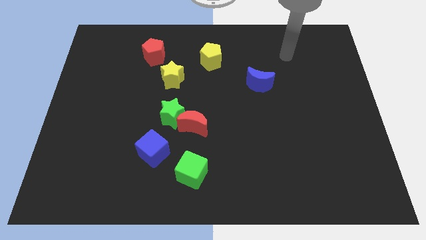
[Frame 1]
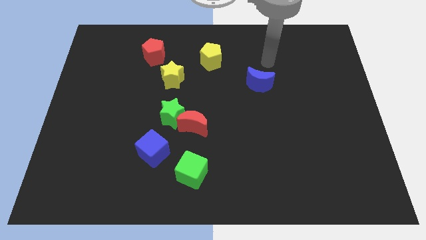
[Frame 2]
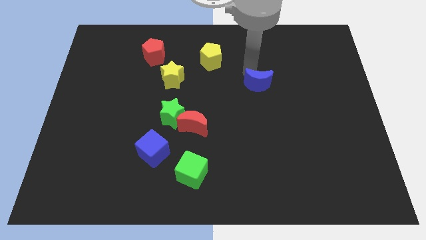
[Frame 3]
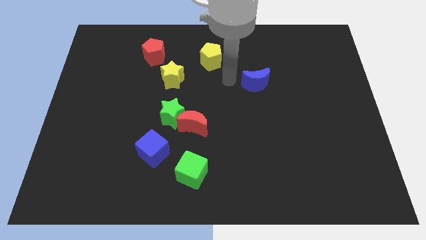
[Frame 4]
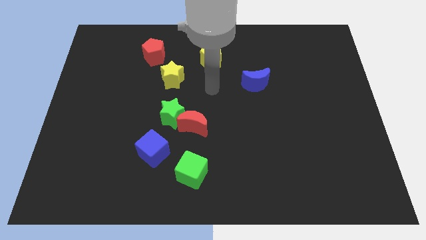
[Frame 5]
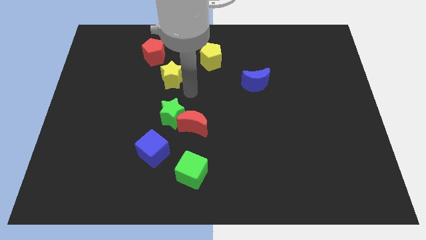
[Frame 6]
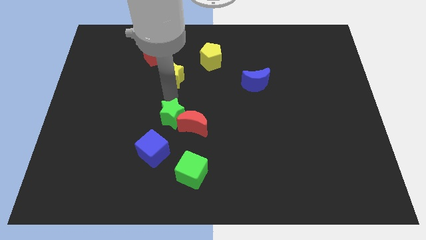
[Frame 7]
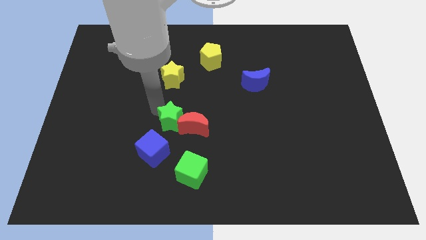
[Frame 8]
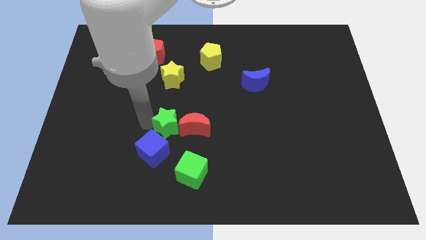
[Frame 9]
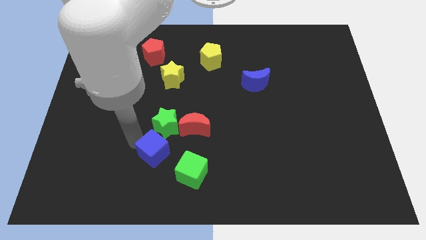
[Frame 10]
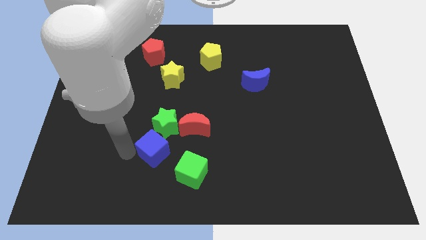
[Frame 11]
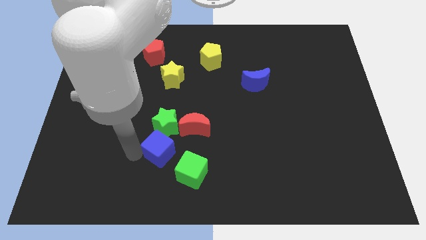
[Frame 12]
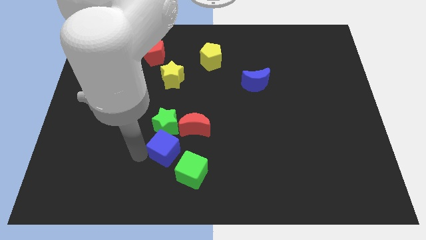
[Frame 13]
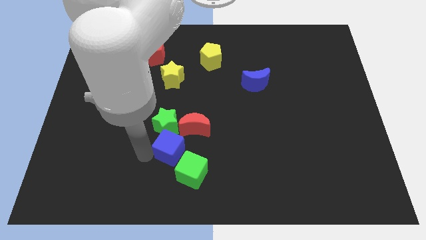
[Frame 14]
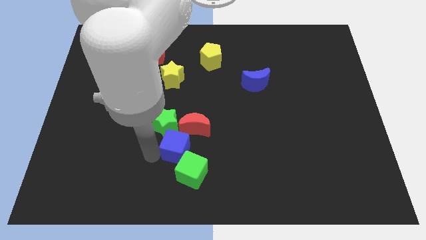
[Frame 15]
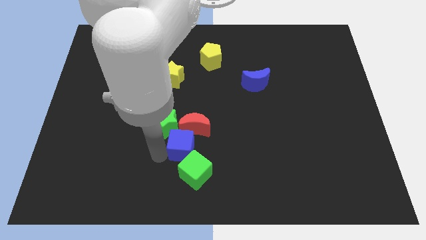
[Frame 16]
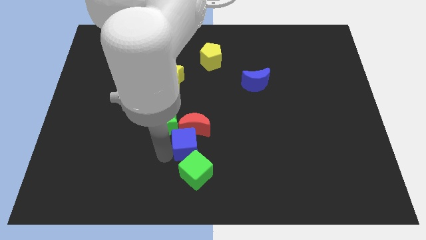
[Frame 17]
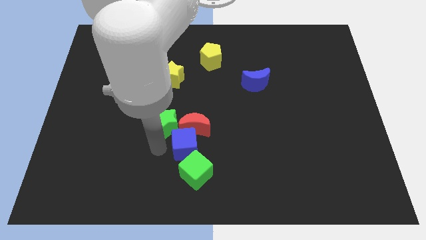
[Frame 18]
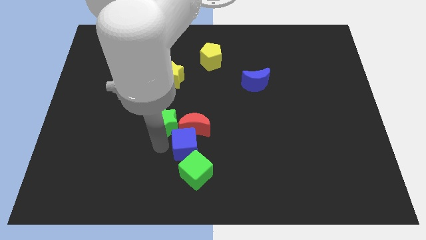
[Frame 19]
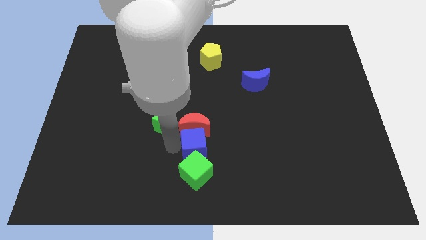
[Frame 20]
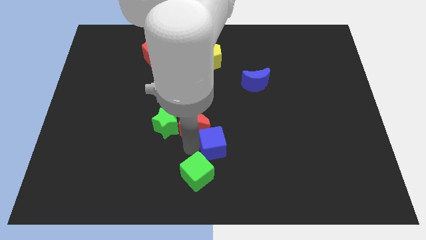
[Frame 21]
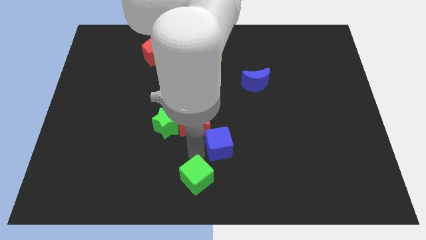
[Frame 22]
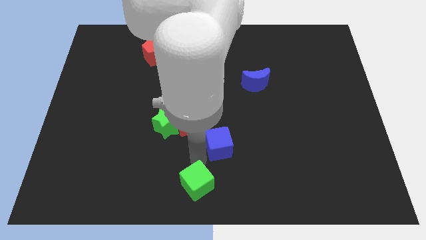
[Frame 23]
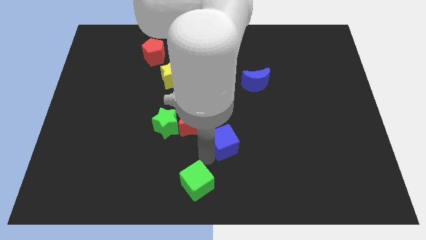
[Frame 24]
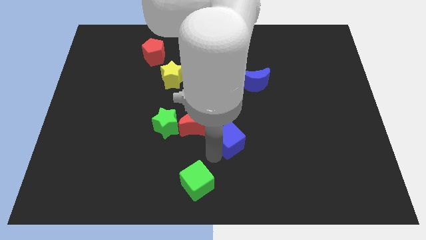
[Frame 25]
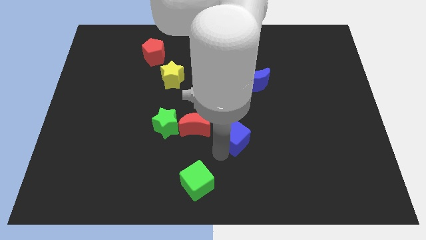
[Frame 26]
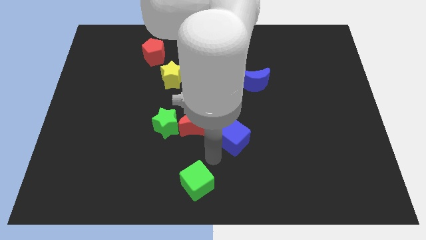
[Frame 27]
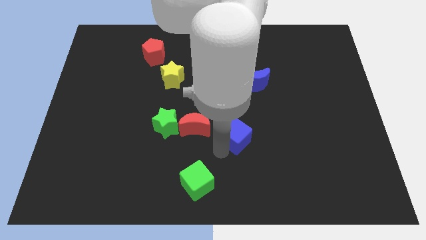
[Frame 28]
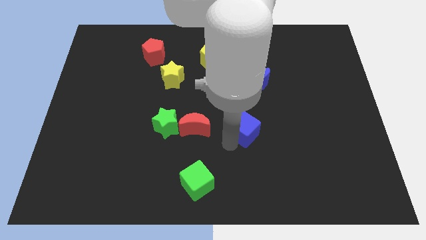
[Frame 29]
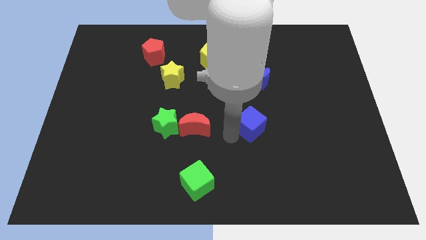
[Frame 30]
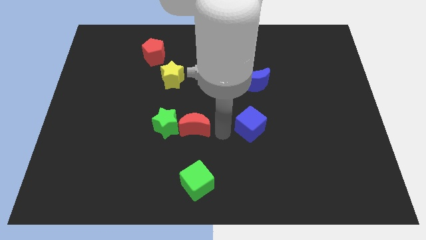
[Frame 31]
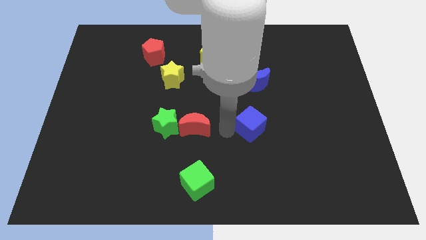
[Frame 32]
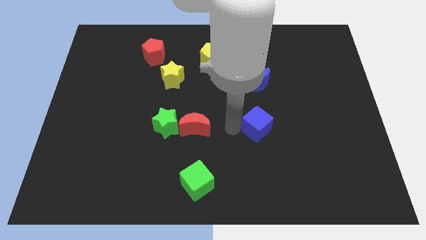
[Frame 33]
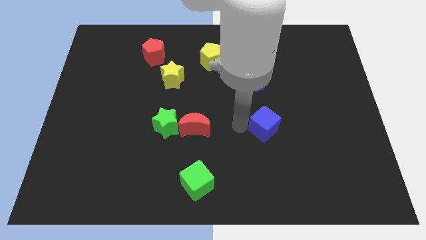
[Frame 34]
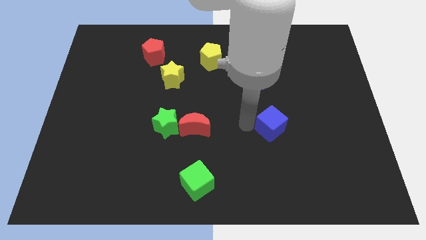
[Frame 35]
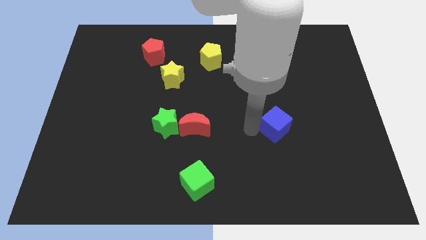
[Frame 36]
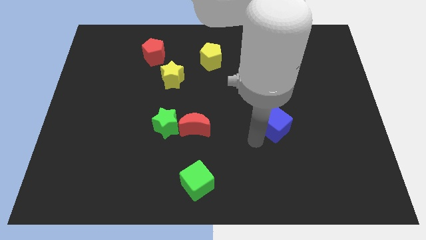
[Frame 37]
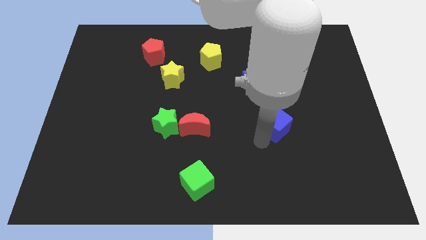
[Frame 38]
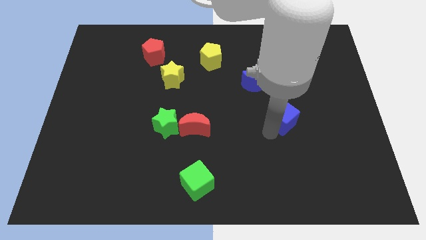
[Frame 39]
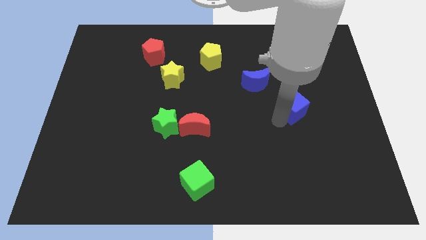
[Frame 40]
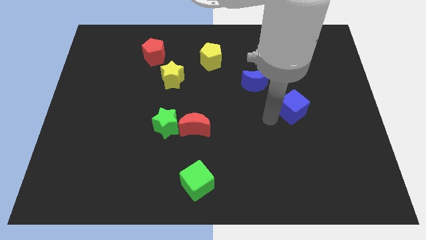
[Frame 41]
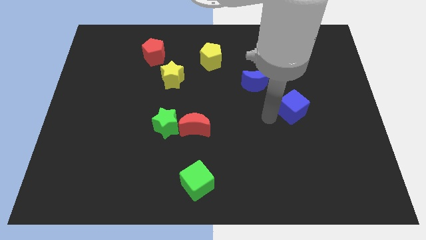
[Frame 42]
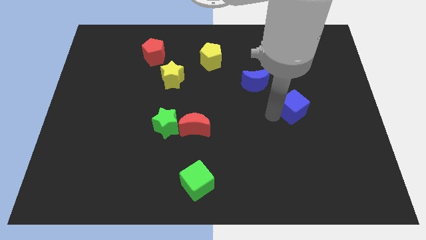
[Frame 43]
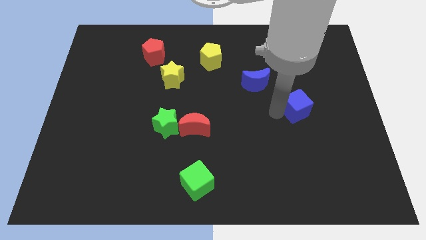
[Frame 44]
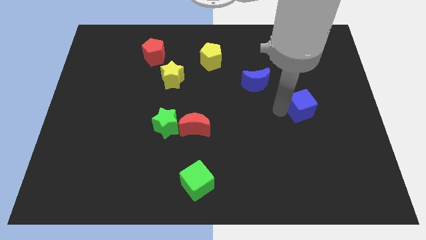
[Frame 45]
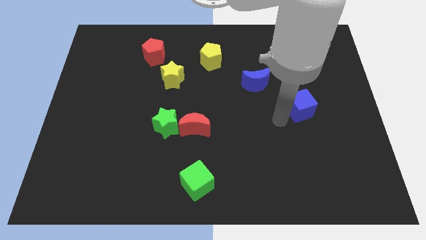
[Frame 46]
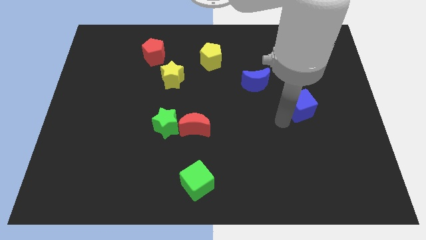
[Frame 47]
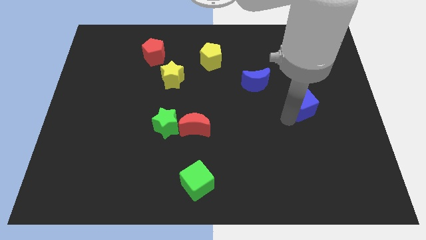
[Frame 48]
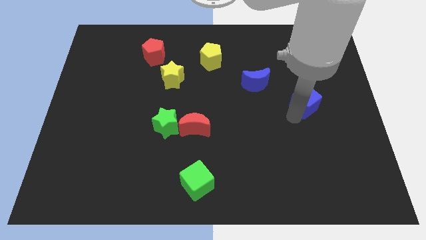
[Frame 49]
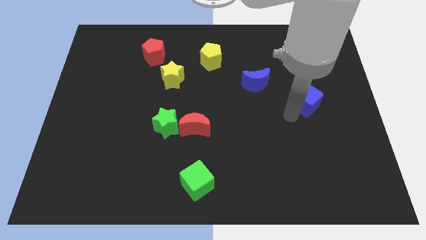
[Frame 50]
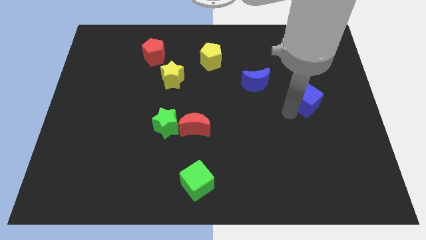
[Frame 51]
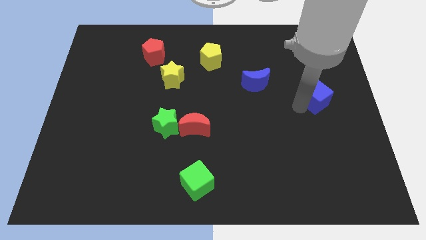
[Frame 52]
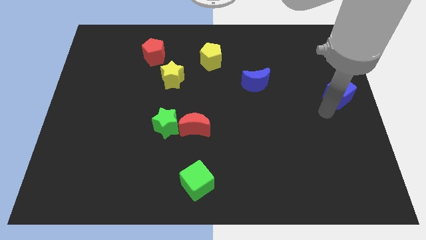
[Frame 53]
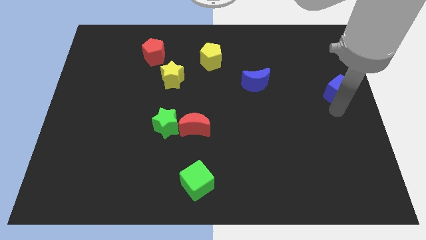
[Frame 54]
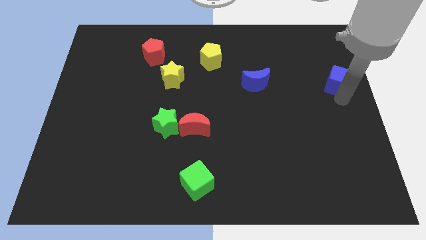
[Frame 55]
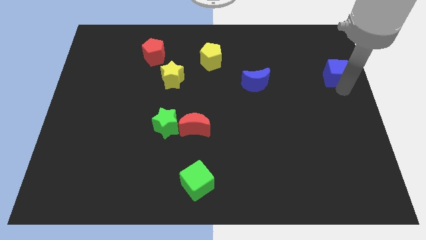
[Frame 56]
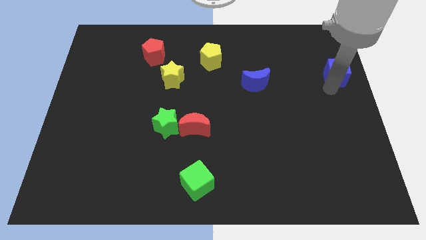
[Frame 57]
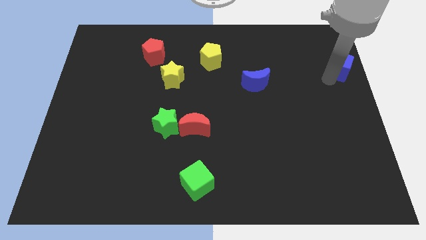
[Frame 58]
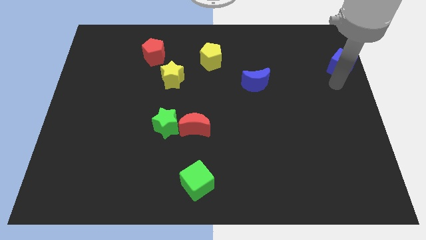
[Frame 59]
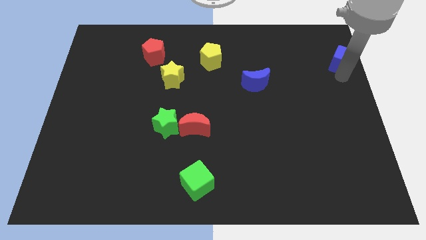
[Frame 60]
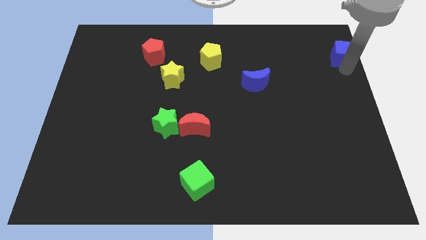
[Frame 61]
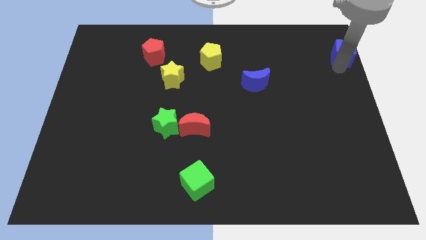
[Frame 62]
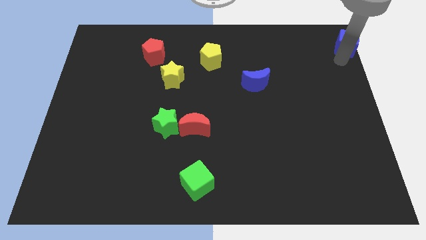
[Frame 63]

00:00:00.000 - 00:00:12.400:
push the blue cube to the top right of the board

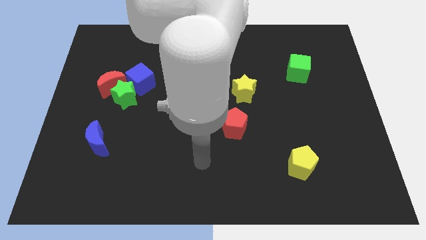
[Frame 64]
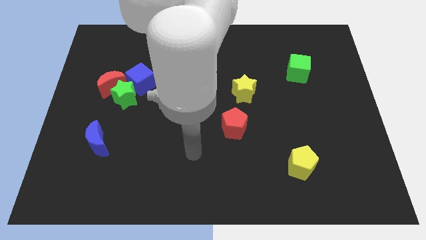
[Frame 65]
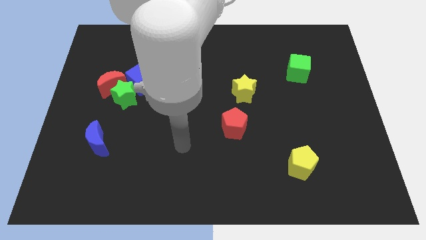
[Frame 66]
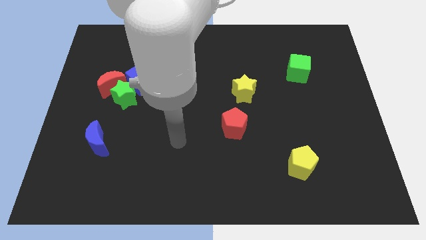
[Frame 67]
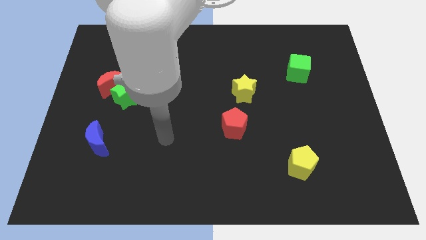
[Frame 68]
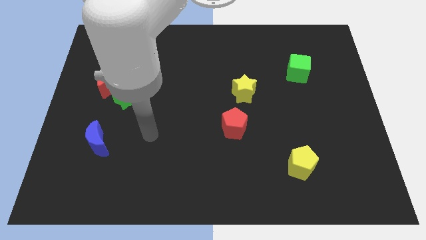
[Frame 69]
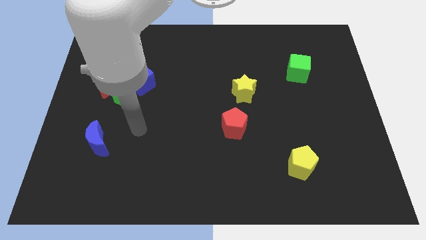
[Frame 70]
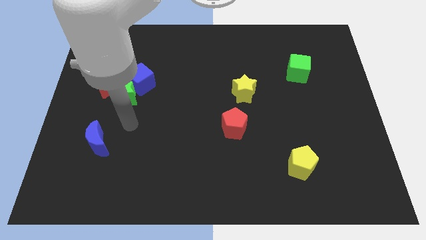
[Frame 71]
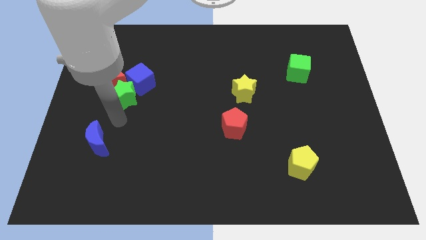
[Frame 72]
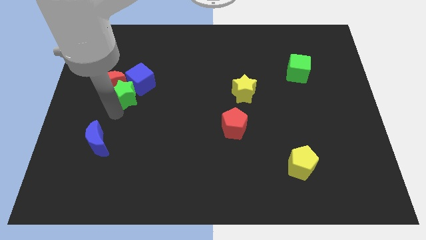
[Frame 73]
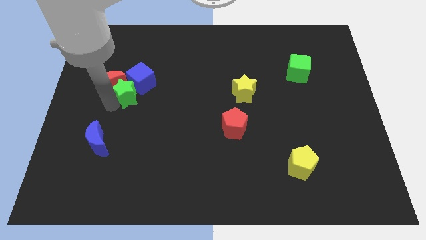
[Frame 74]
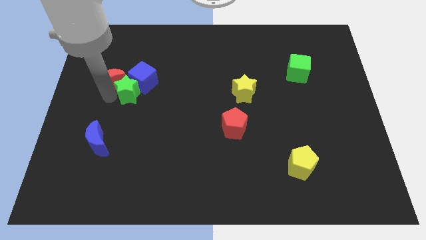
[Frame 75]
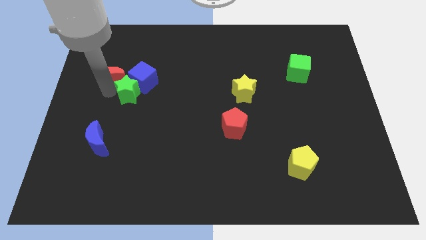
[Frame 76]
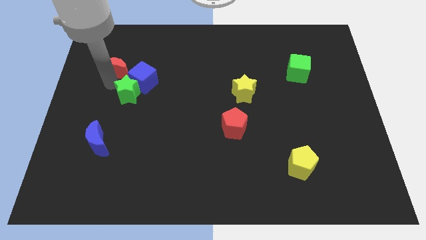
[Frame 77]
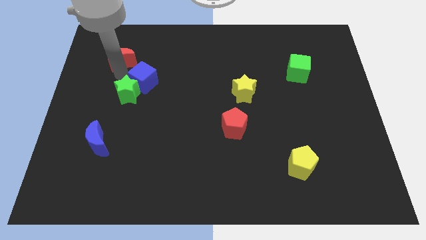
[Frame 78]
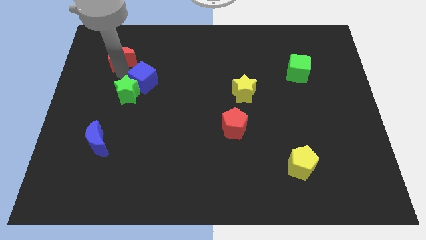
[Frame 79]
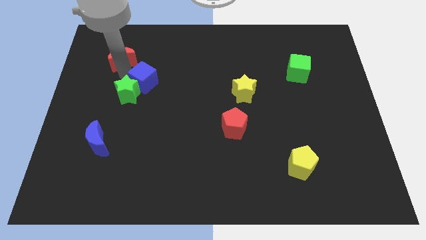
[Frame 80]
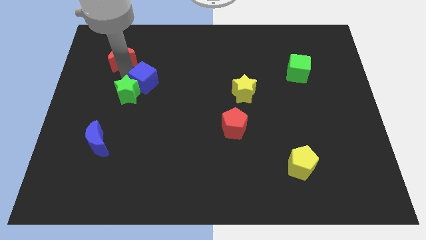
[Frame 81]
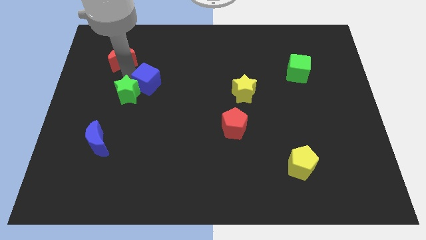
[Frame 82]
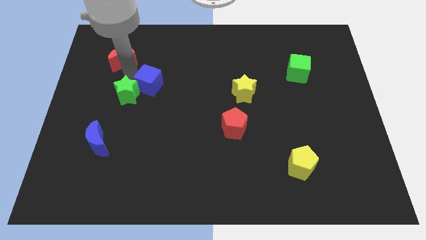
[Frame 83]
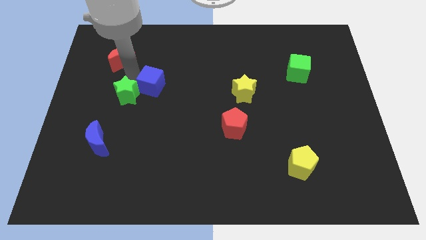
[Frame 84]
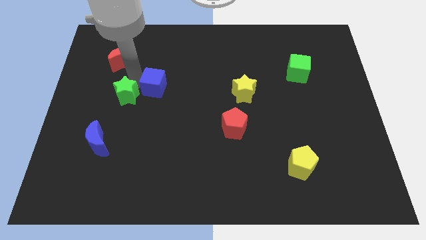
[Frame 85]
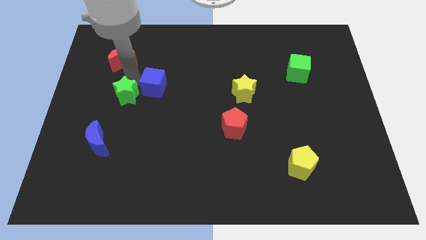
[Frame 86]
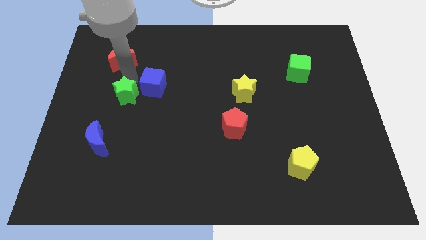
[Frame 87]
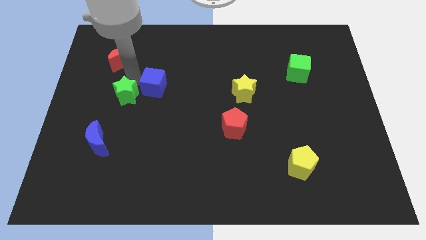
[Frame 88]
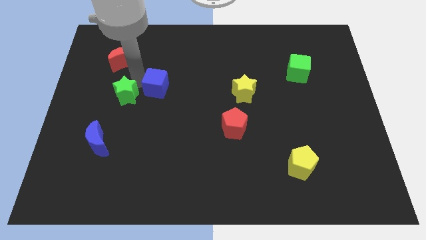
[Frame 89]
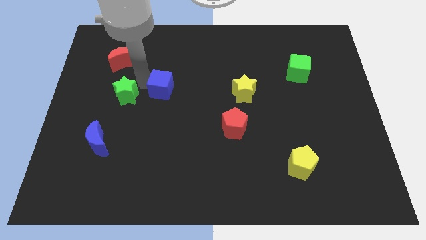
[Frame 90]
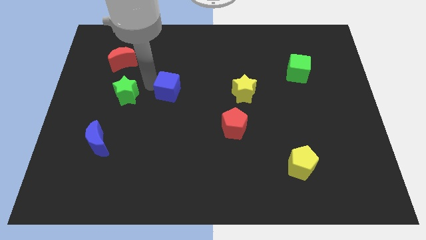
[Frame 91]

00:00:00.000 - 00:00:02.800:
put the blue cube to the middle of the board
